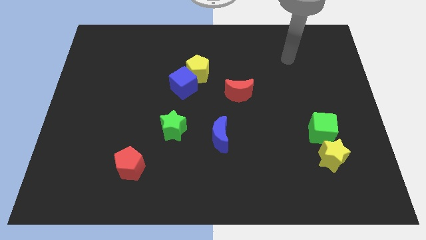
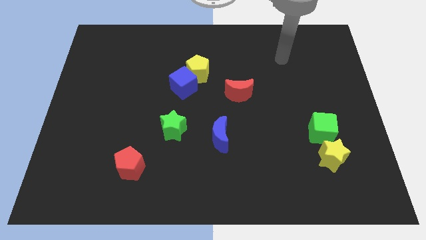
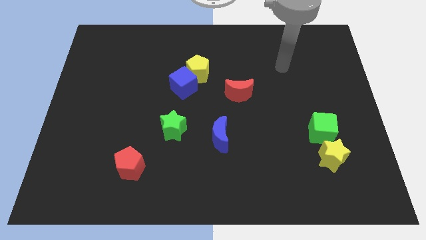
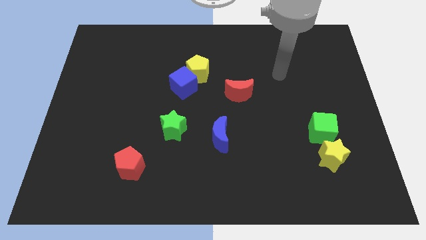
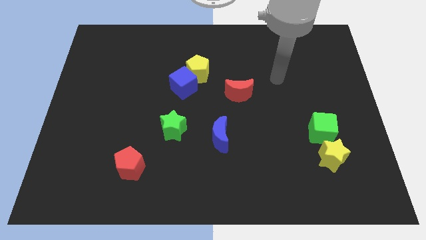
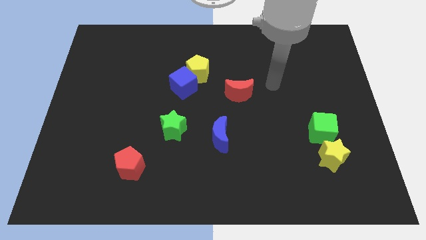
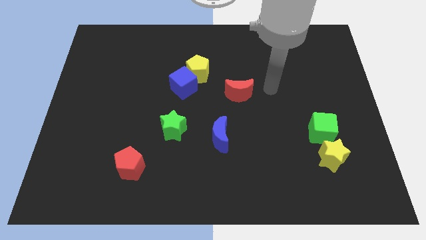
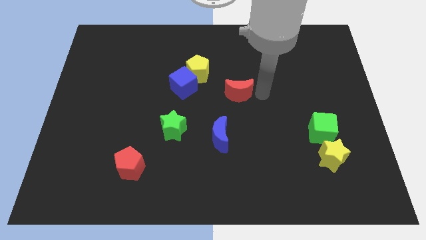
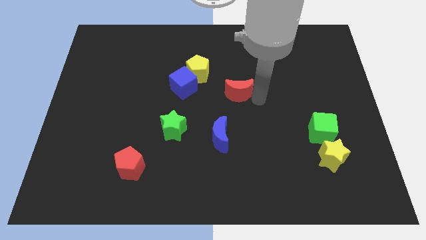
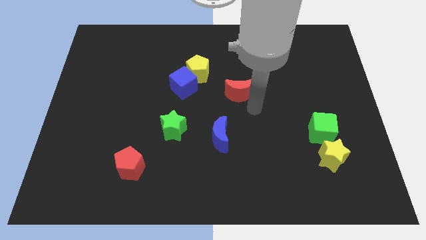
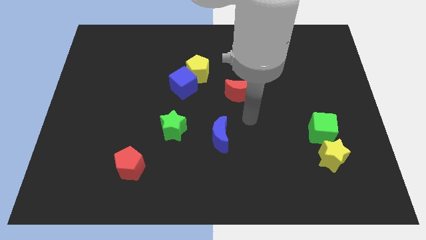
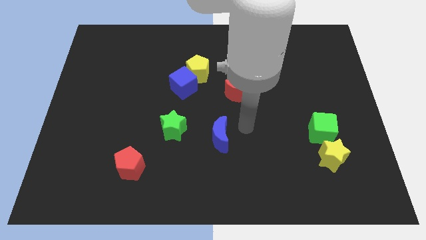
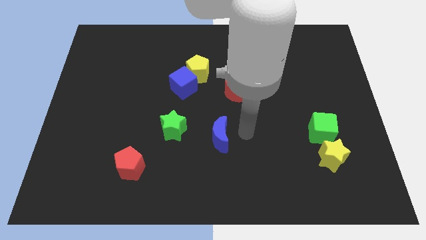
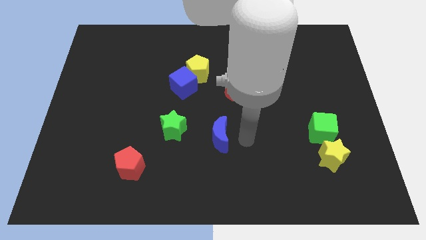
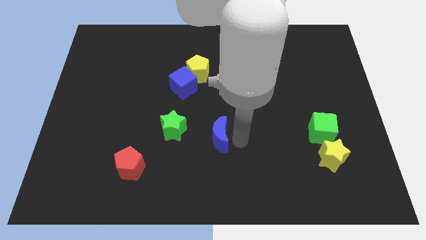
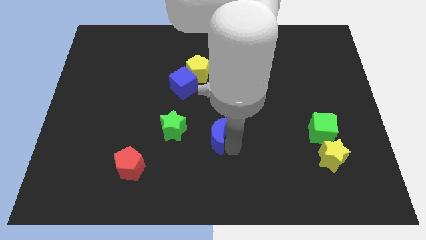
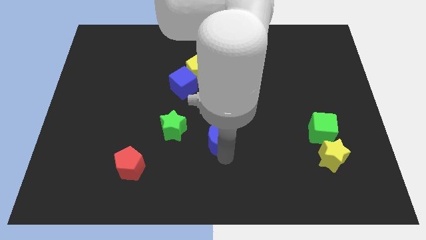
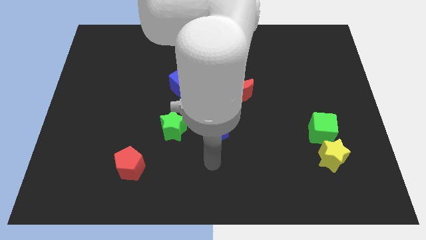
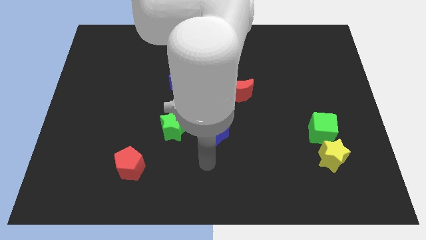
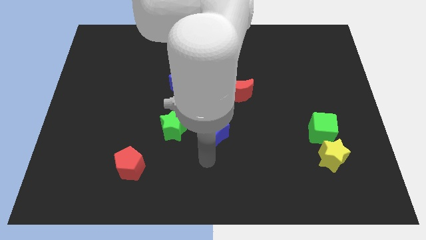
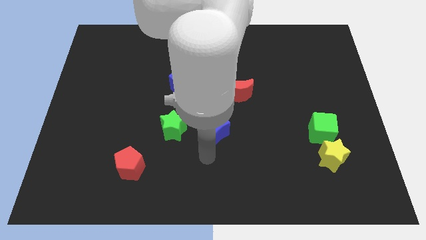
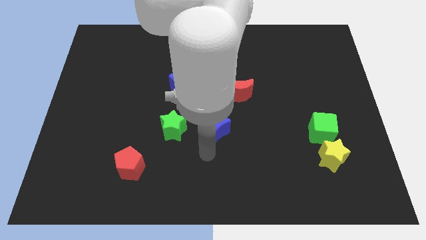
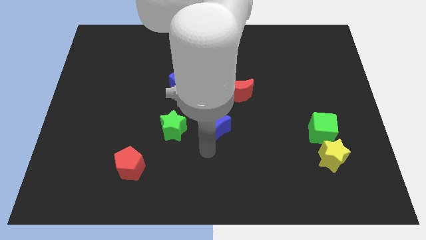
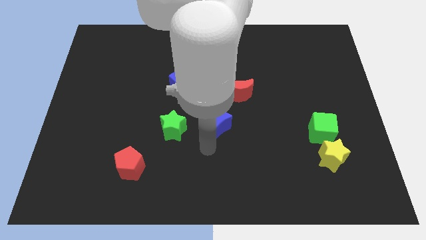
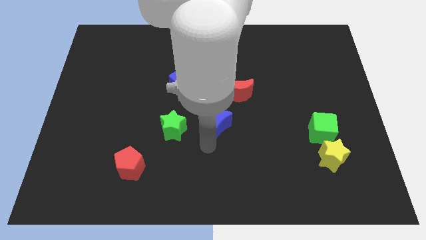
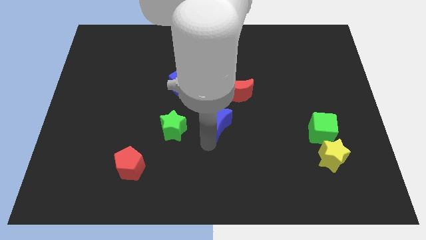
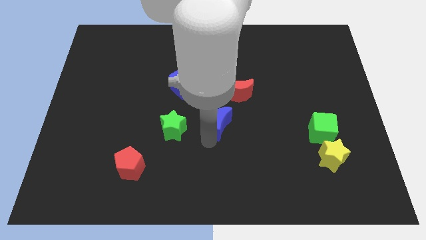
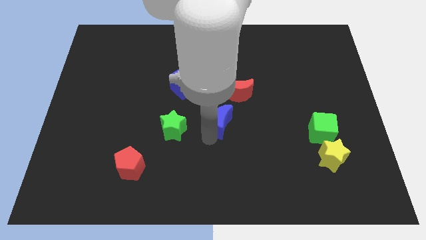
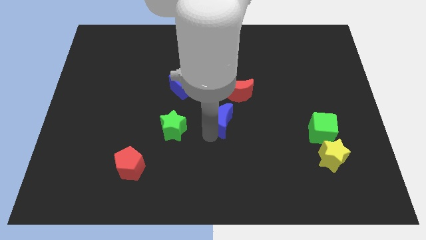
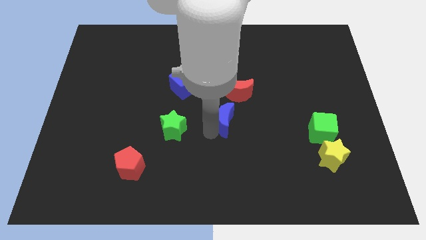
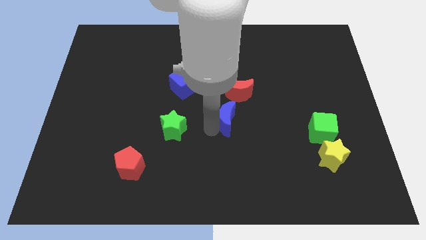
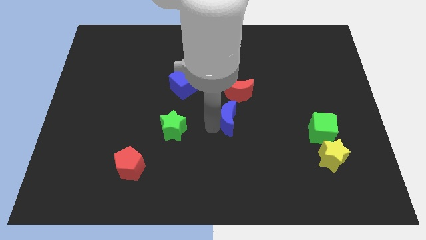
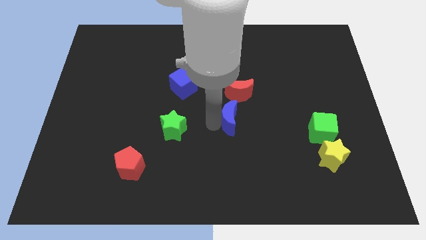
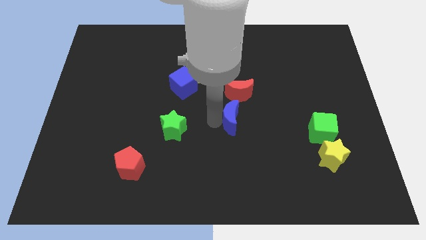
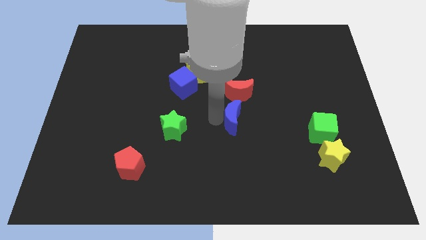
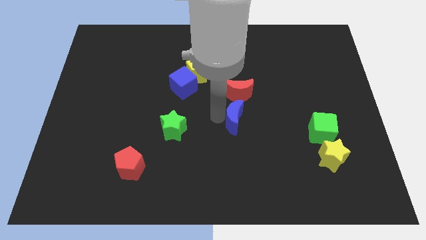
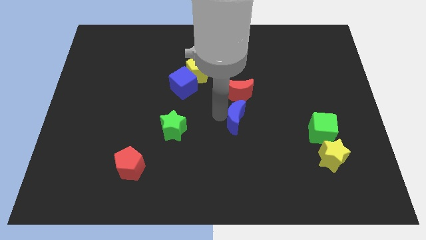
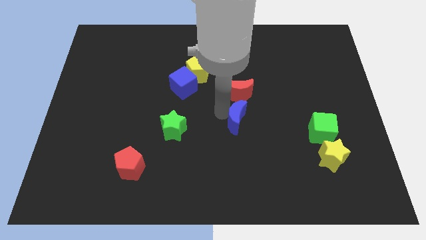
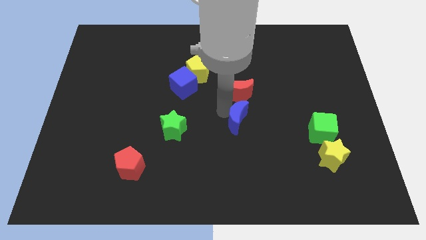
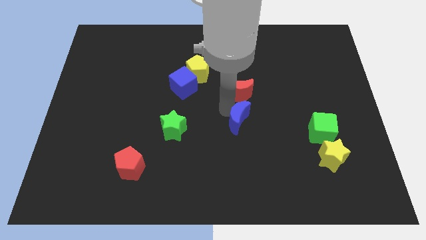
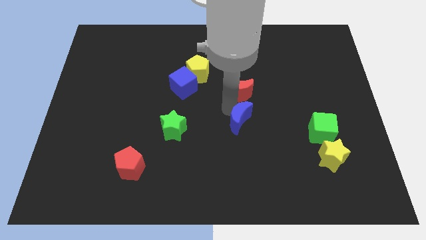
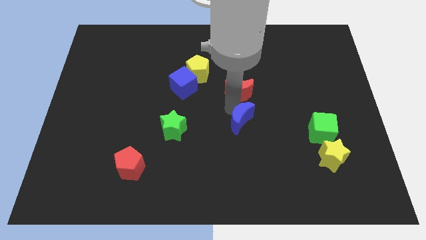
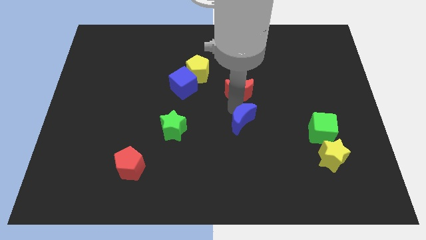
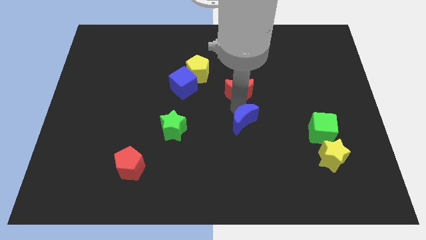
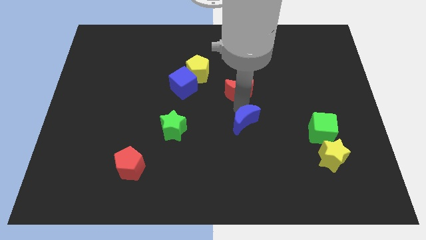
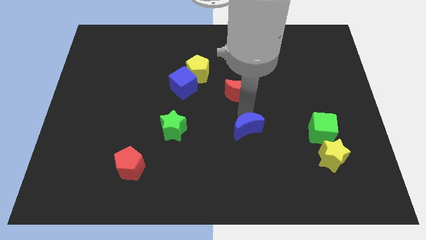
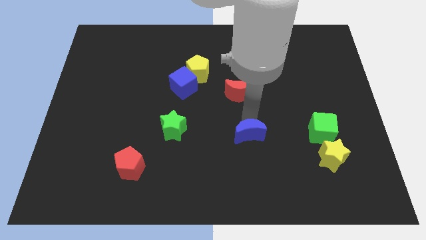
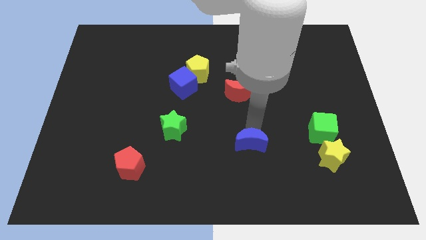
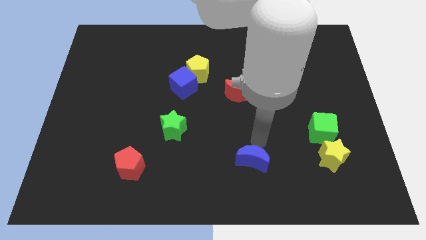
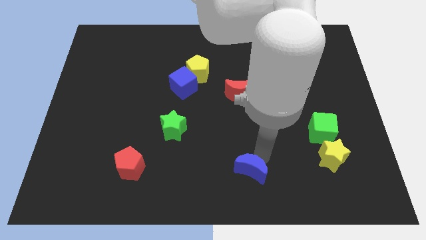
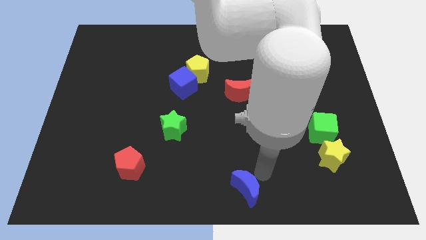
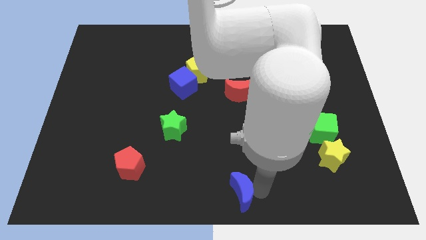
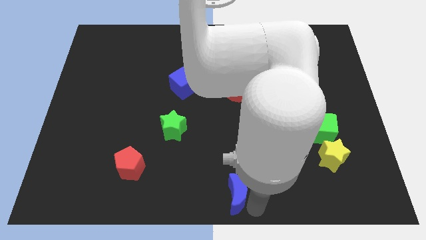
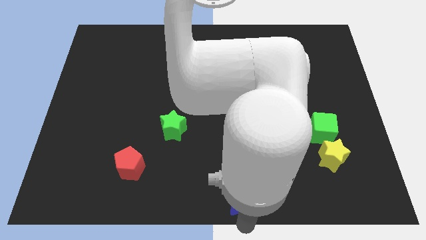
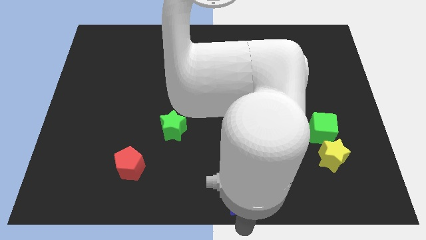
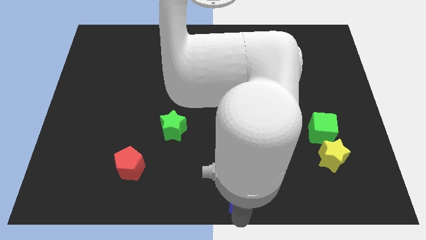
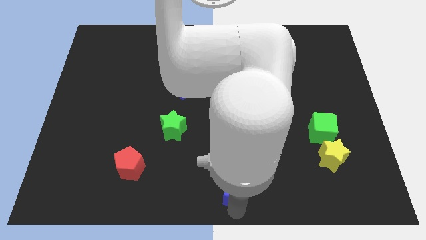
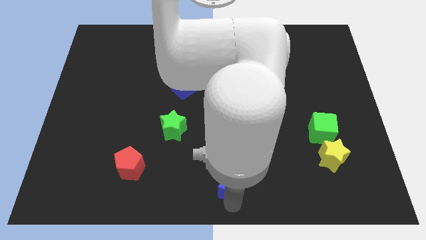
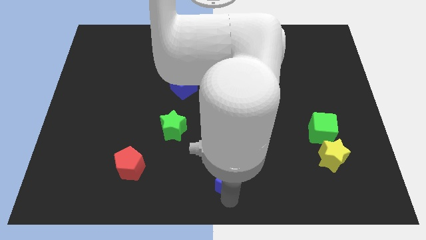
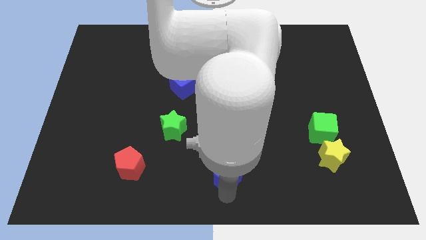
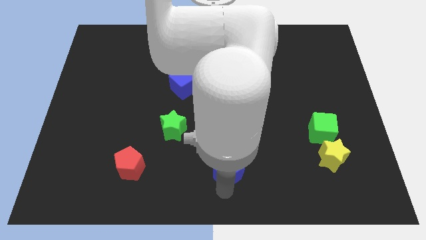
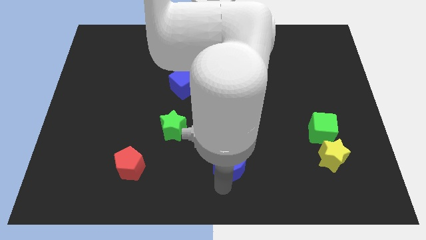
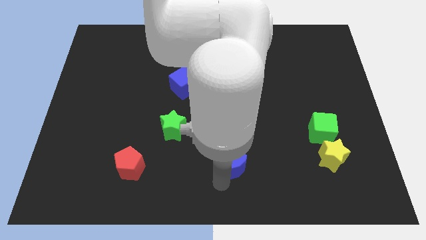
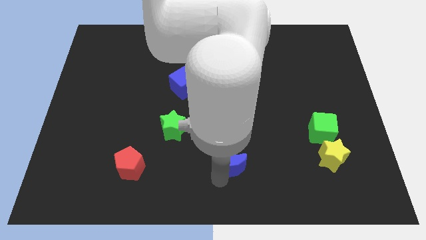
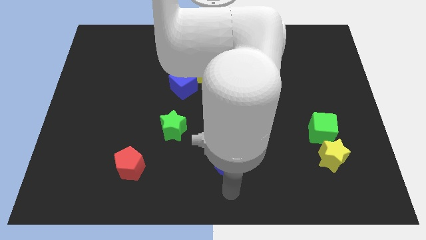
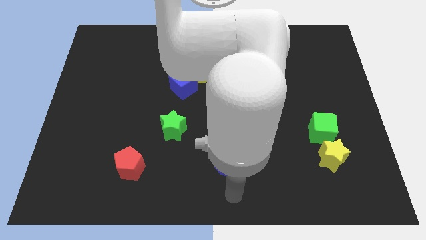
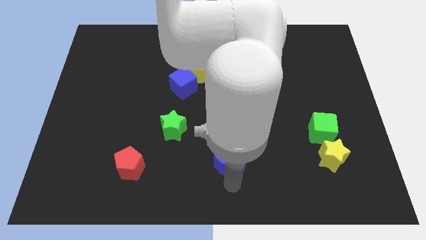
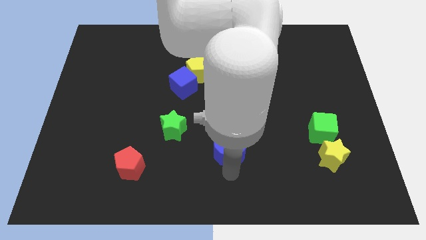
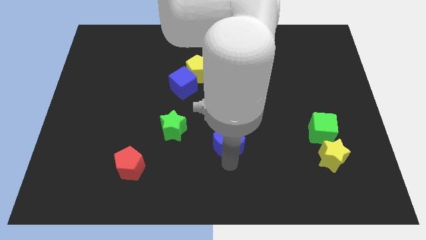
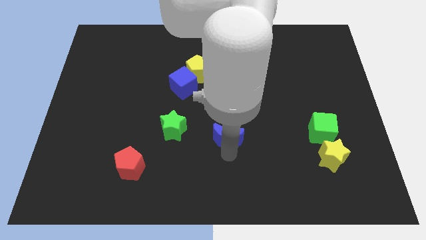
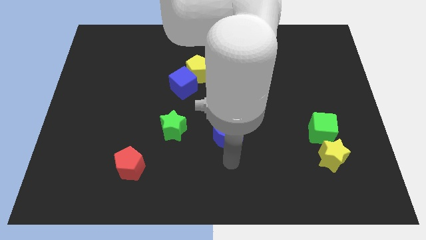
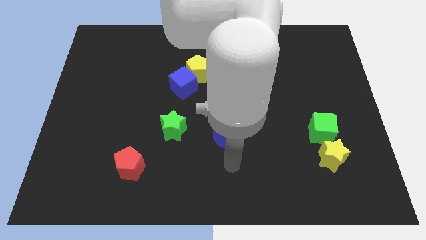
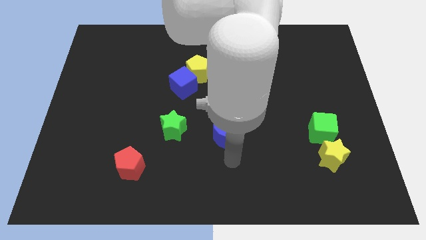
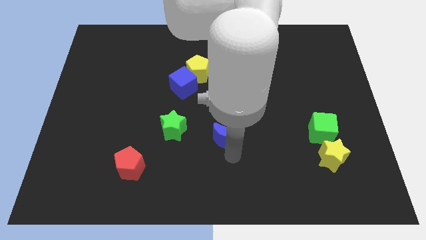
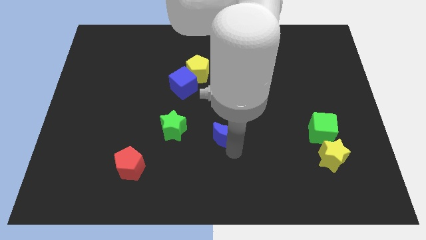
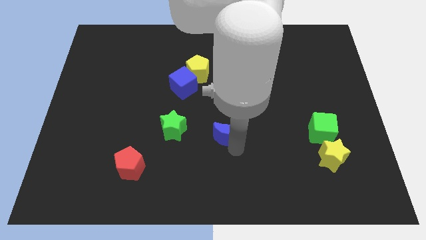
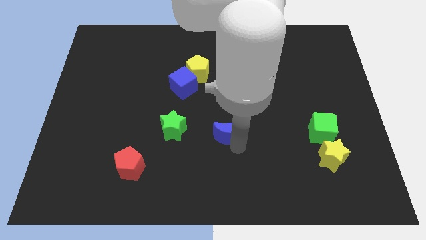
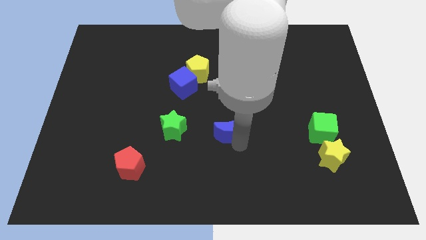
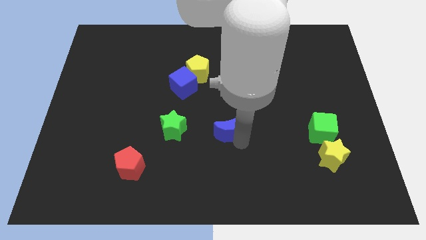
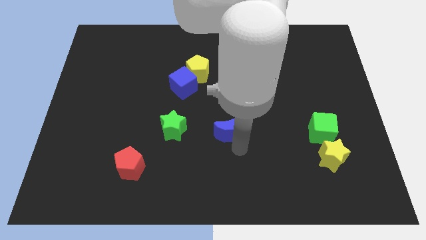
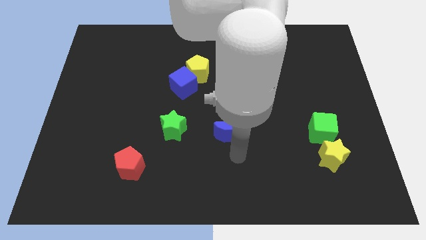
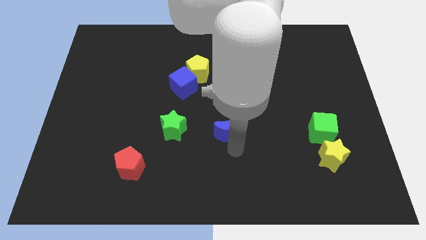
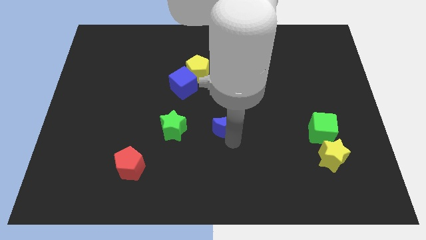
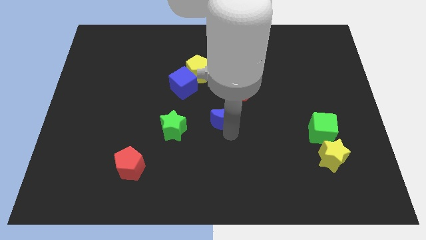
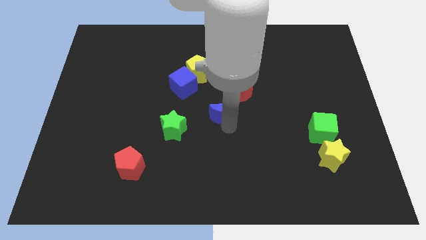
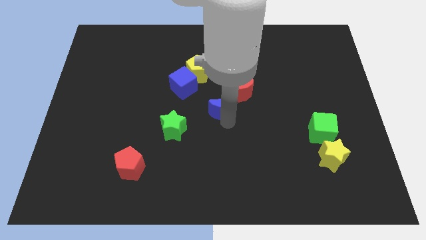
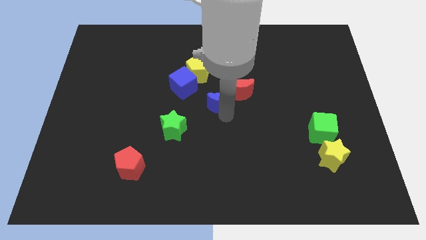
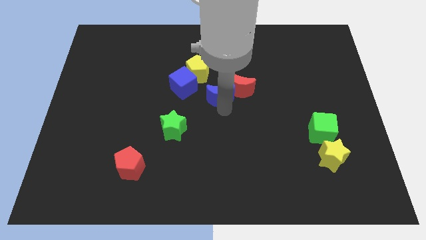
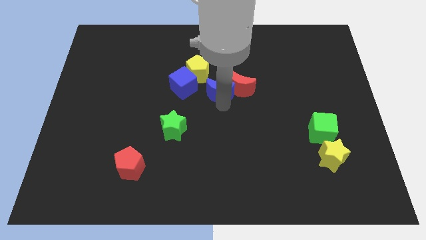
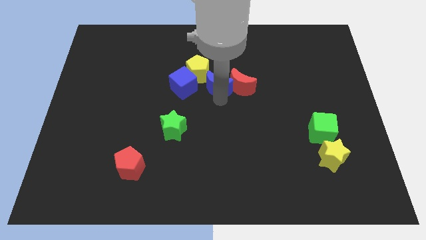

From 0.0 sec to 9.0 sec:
push the blue moon diagonally up and to the left of the red moon
